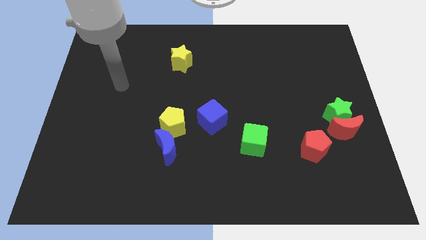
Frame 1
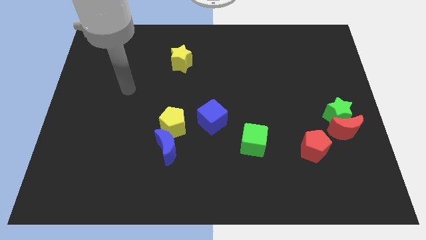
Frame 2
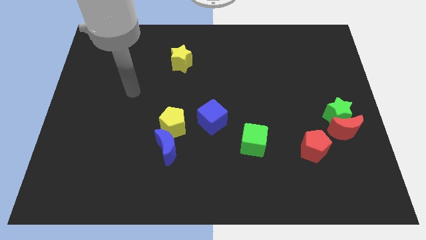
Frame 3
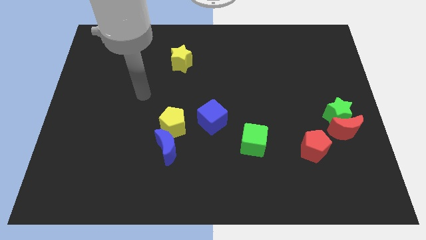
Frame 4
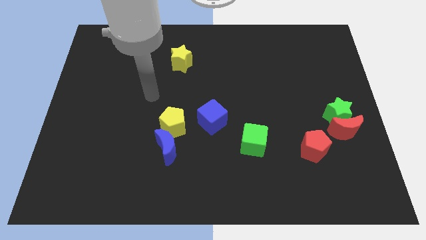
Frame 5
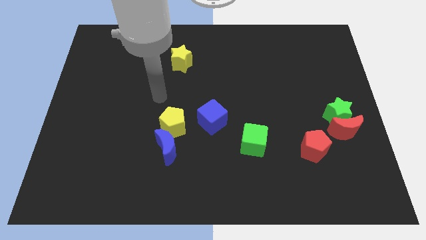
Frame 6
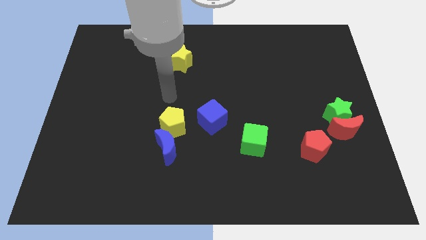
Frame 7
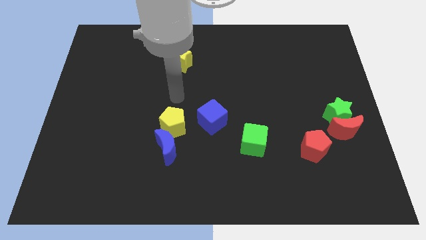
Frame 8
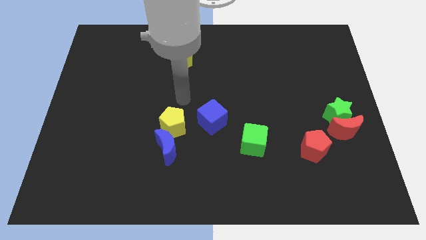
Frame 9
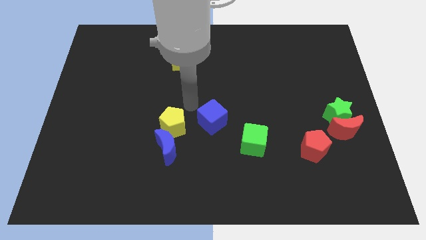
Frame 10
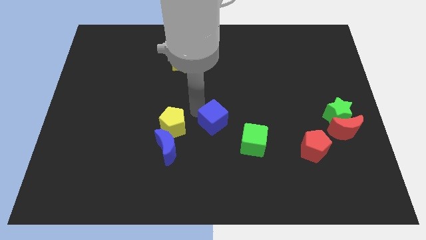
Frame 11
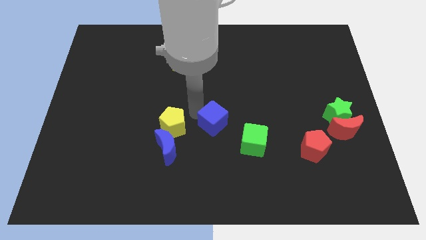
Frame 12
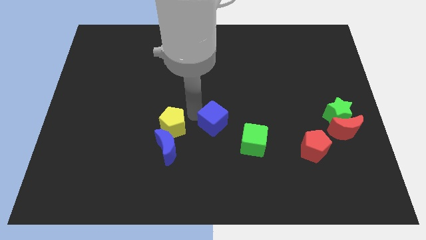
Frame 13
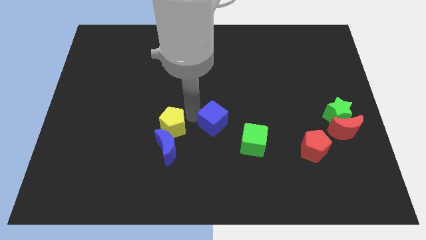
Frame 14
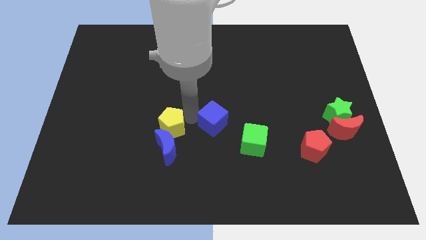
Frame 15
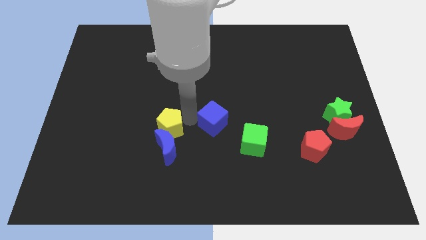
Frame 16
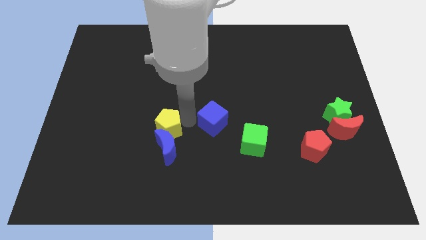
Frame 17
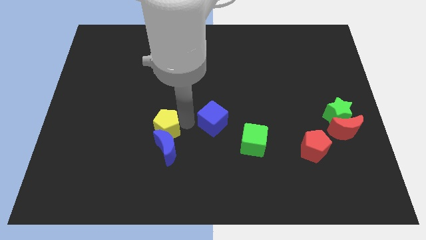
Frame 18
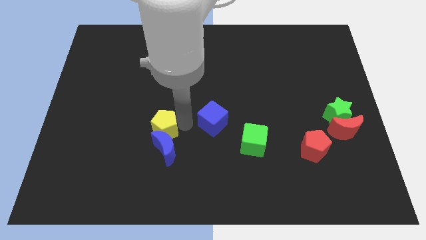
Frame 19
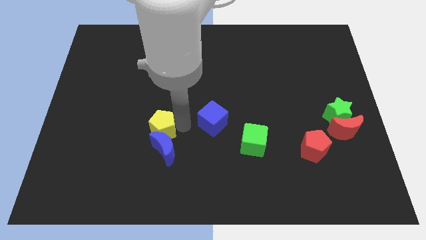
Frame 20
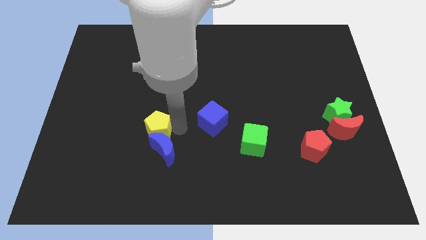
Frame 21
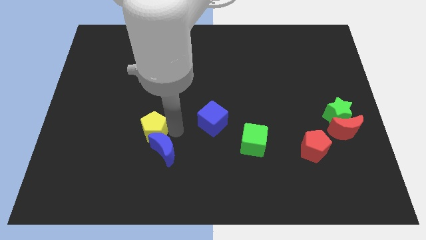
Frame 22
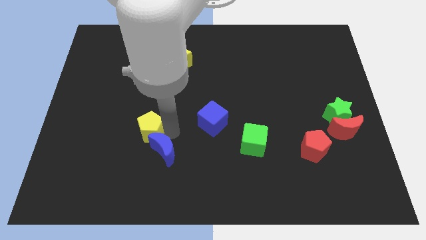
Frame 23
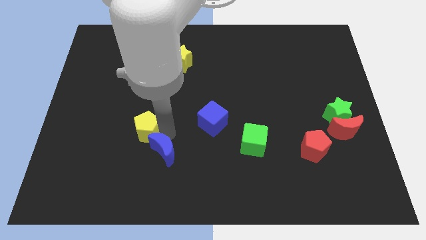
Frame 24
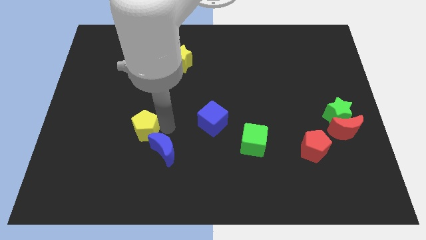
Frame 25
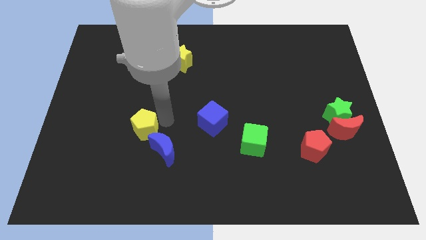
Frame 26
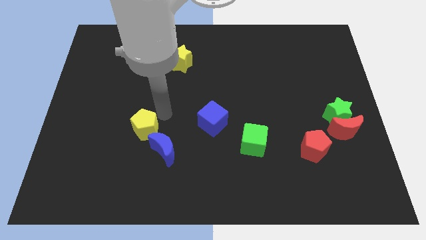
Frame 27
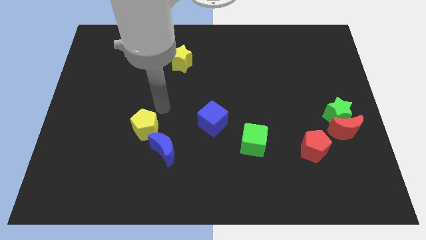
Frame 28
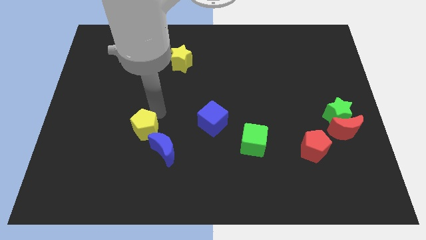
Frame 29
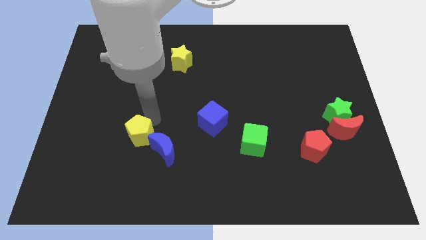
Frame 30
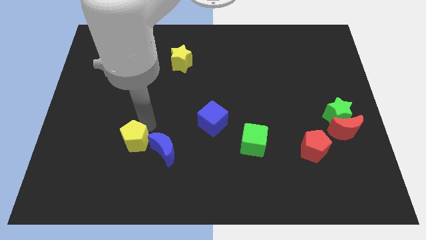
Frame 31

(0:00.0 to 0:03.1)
slide the yellow pentagon down and then left somewhat

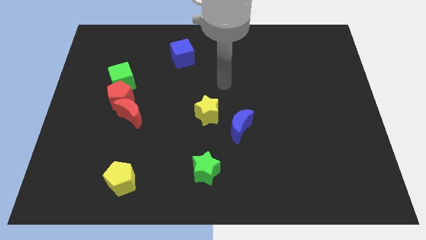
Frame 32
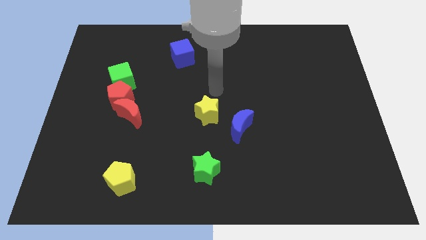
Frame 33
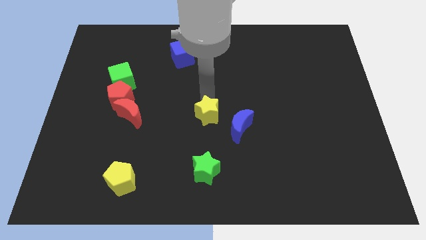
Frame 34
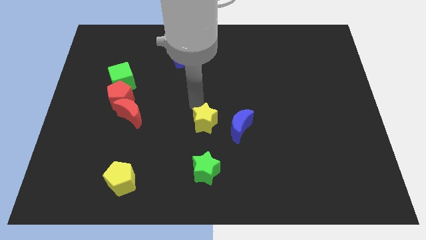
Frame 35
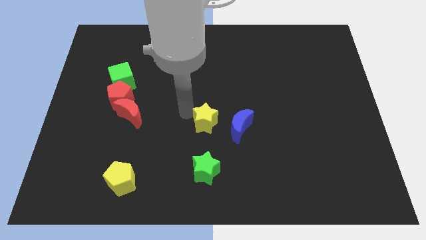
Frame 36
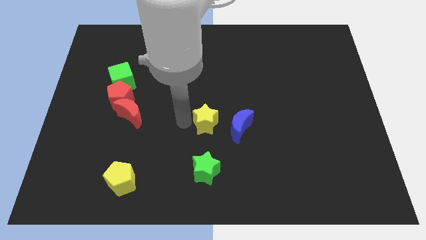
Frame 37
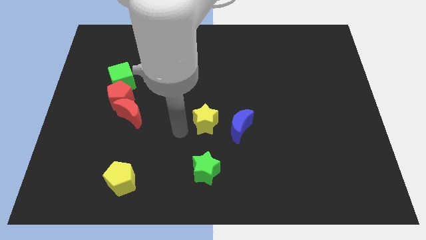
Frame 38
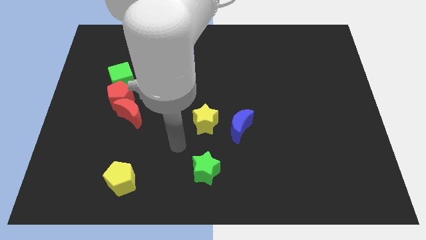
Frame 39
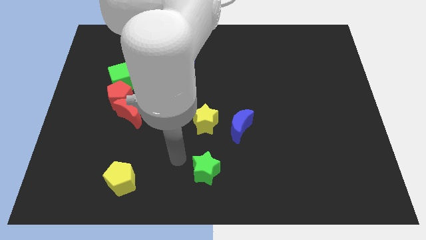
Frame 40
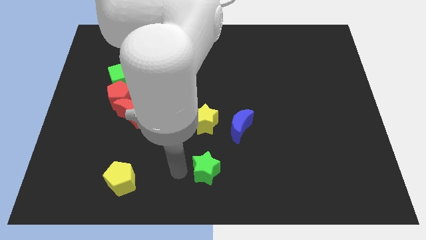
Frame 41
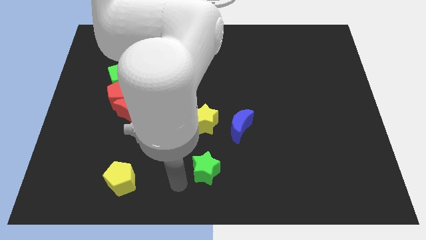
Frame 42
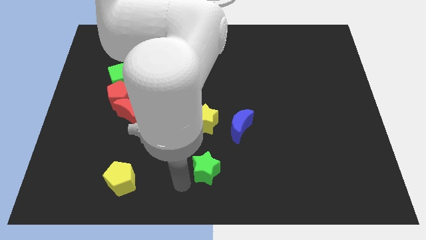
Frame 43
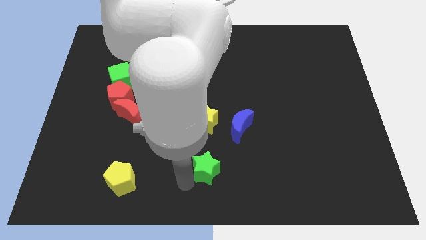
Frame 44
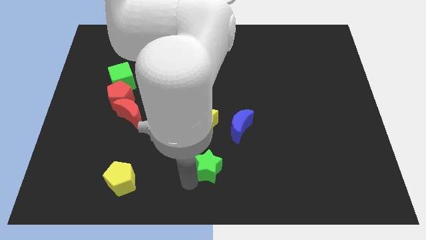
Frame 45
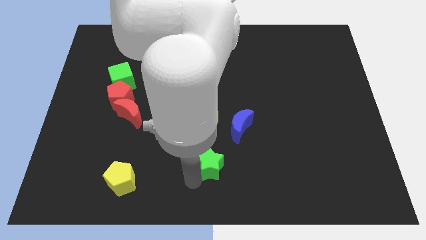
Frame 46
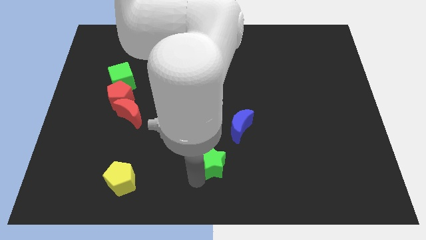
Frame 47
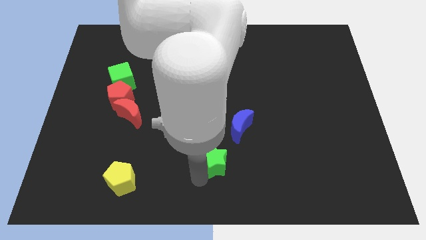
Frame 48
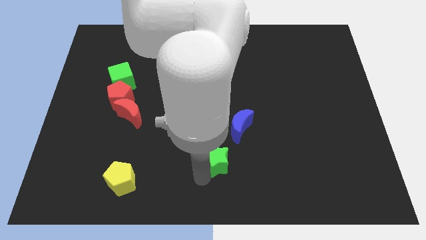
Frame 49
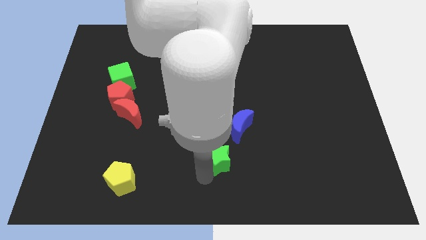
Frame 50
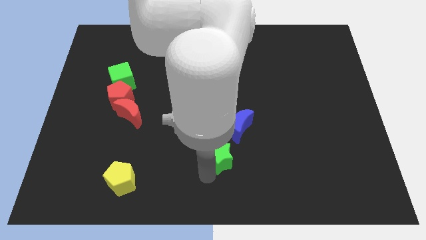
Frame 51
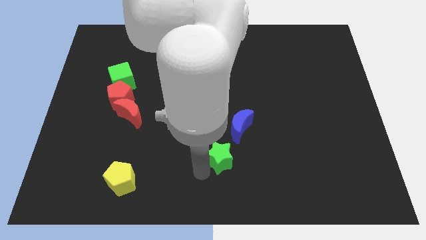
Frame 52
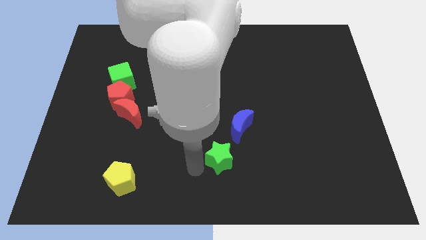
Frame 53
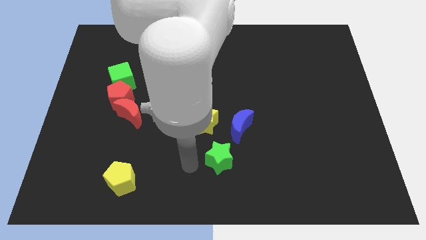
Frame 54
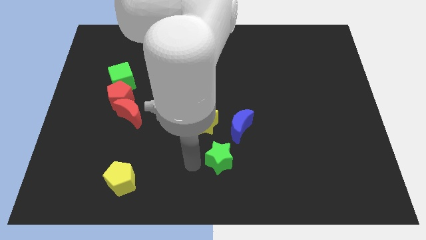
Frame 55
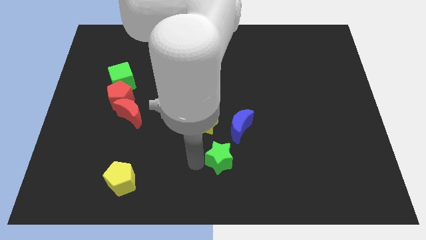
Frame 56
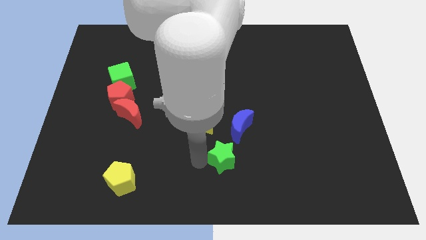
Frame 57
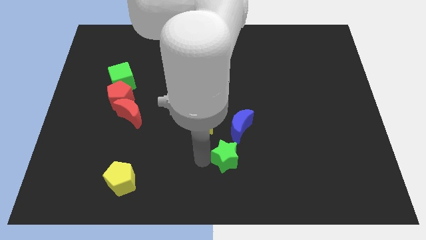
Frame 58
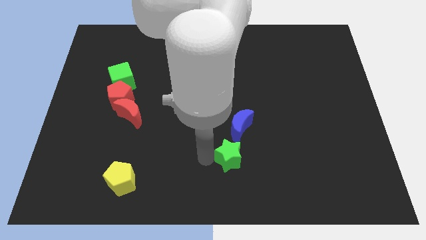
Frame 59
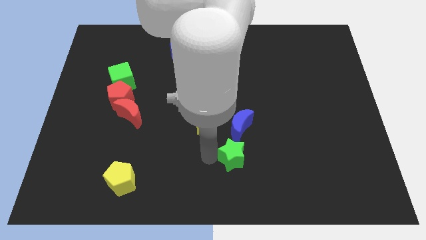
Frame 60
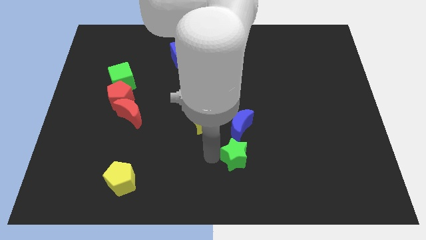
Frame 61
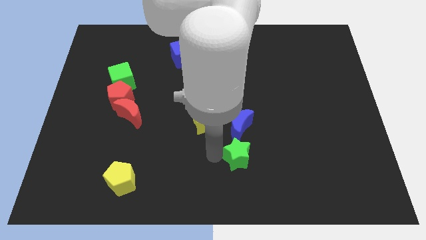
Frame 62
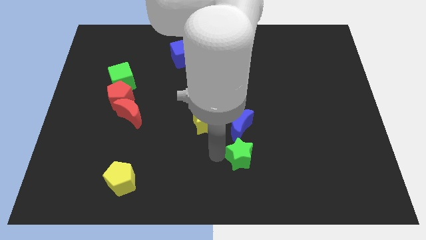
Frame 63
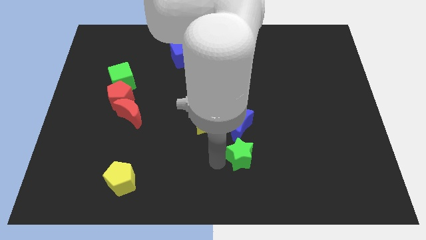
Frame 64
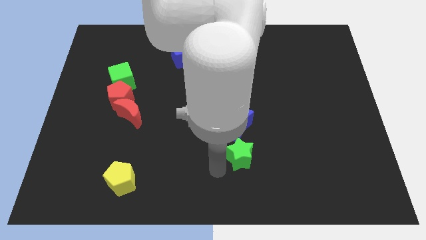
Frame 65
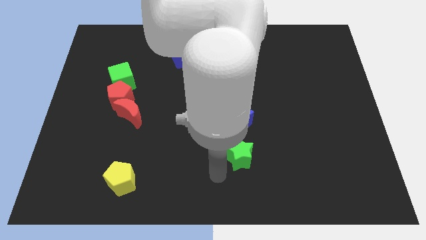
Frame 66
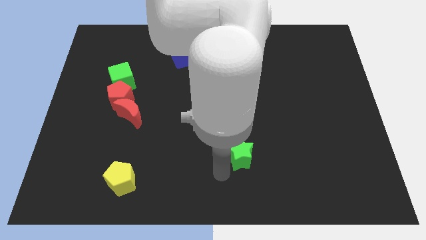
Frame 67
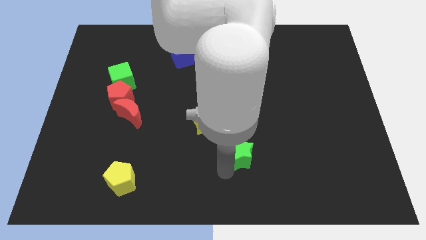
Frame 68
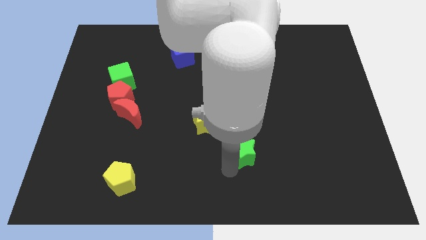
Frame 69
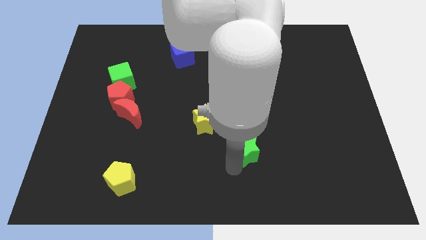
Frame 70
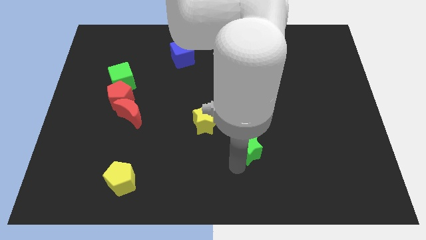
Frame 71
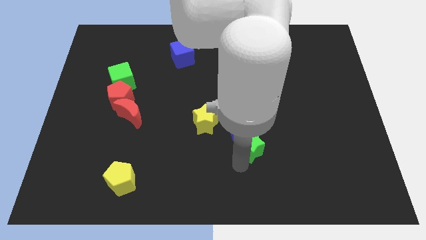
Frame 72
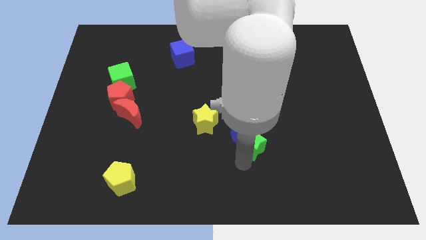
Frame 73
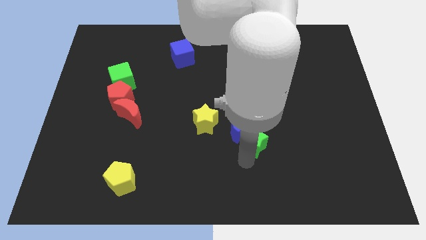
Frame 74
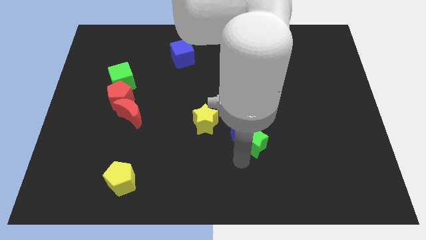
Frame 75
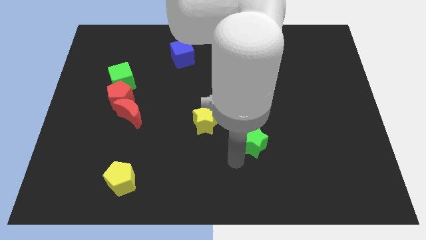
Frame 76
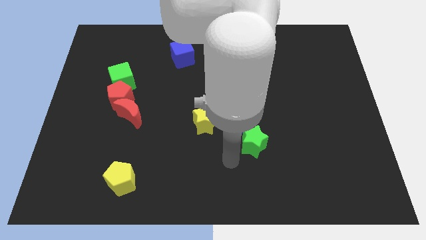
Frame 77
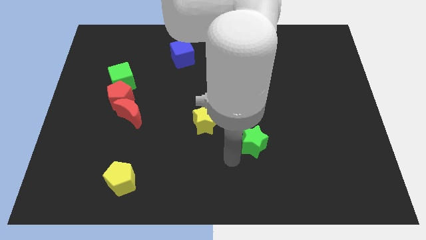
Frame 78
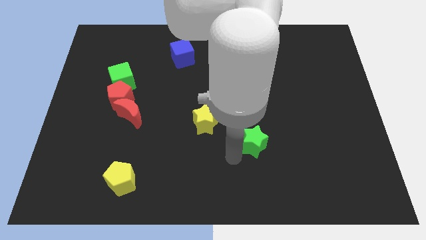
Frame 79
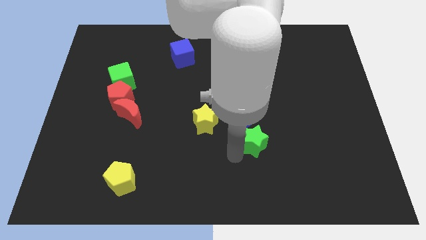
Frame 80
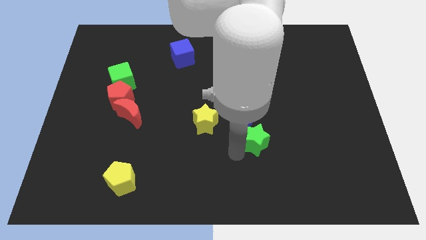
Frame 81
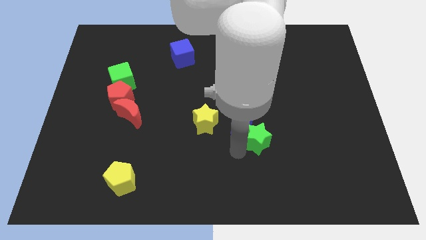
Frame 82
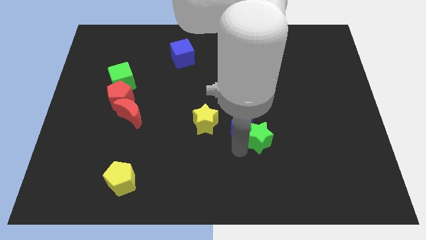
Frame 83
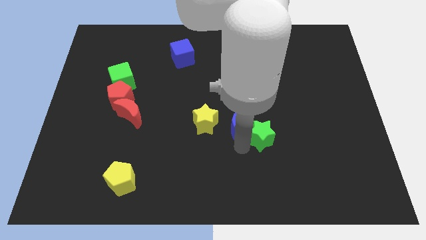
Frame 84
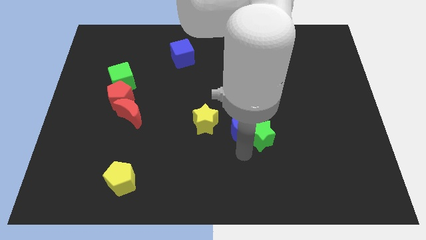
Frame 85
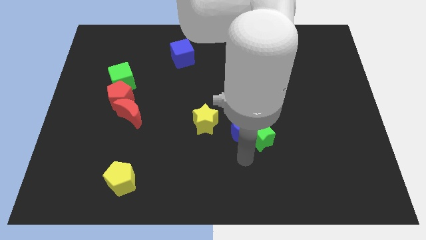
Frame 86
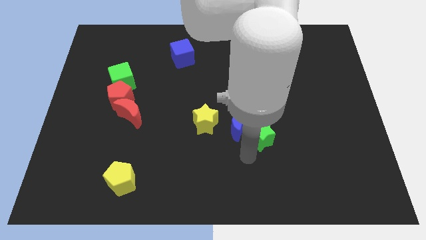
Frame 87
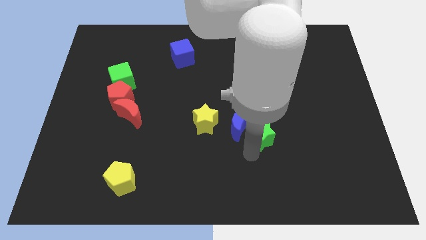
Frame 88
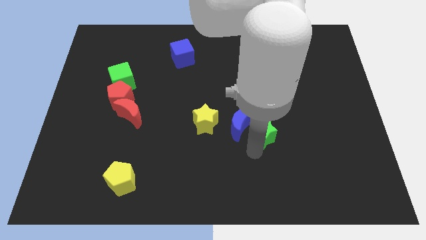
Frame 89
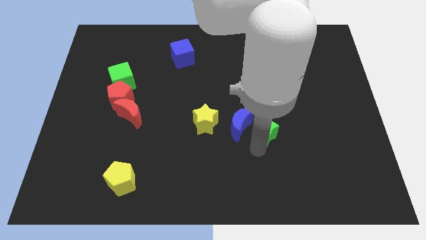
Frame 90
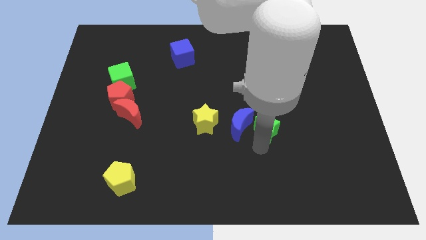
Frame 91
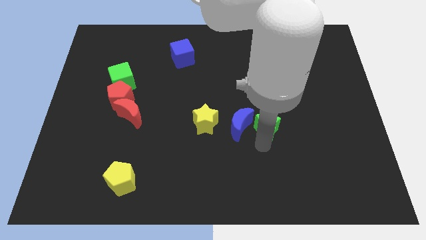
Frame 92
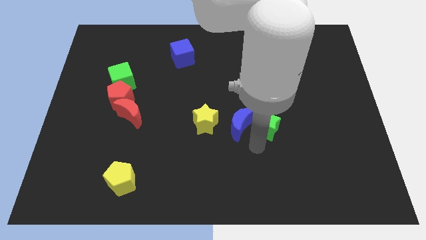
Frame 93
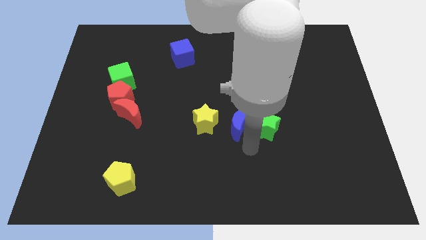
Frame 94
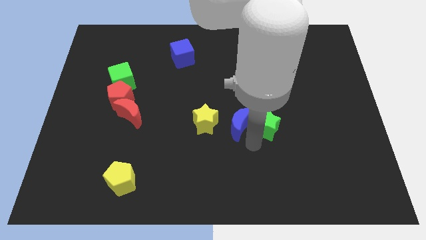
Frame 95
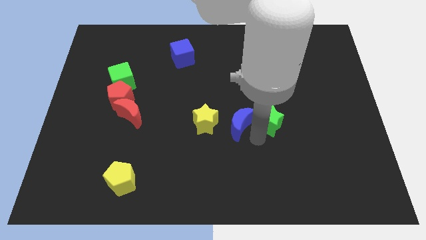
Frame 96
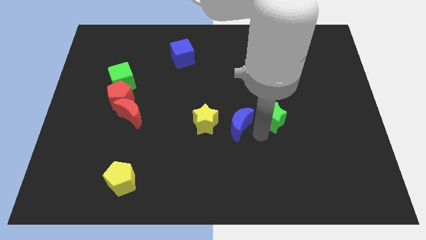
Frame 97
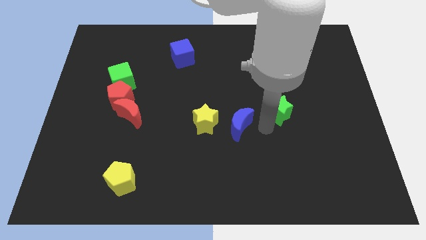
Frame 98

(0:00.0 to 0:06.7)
push the green star upwards and right diagonally
